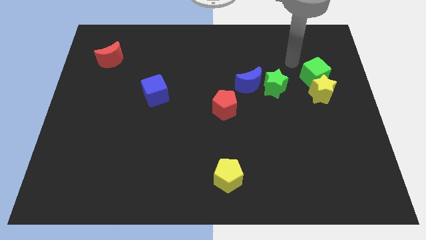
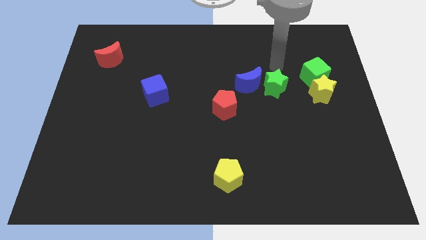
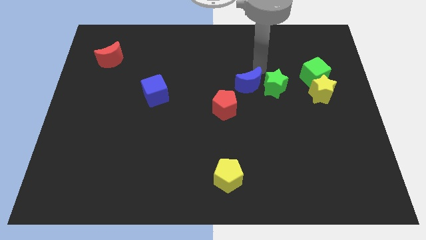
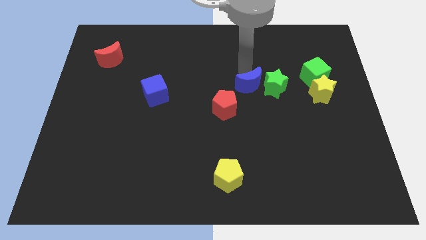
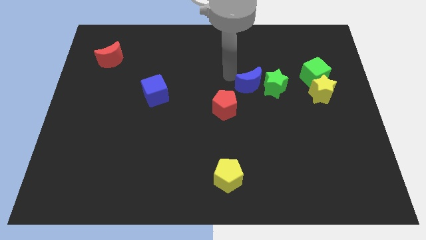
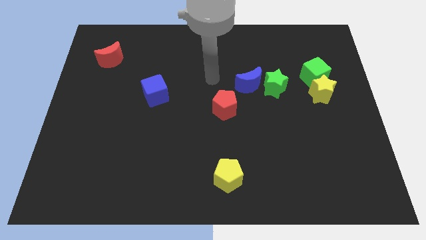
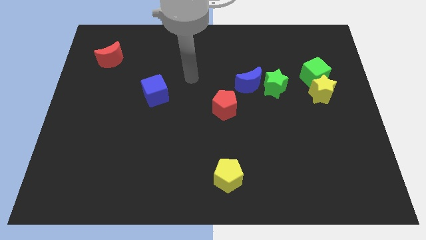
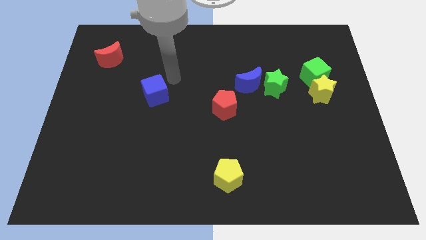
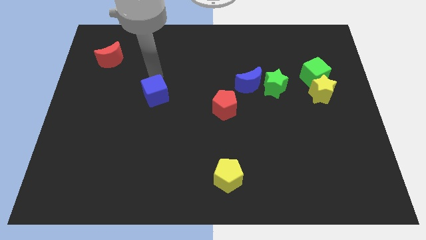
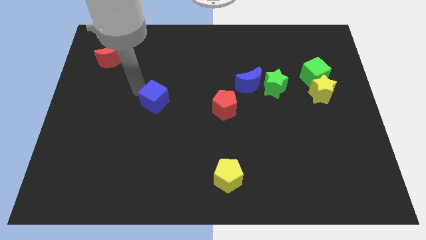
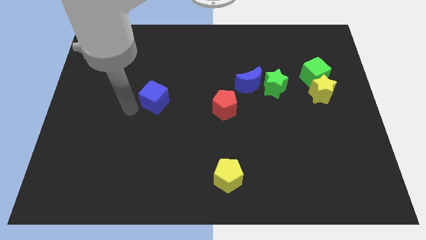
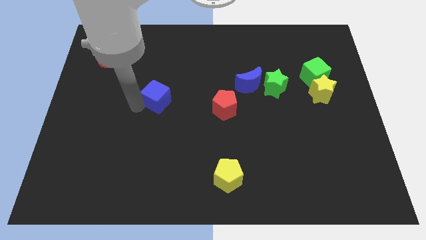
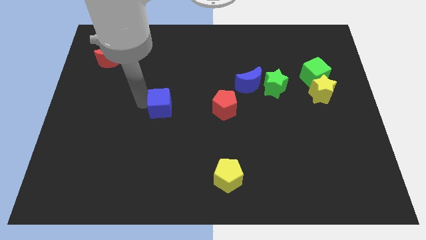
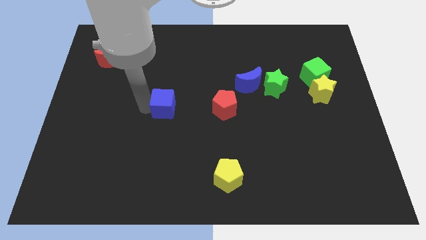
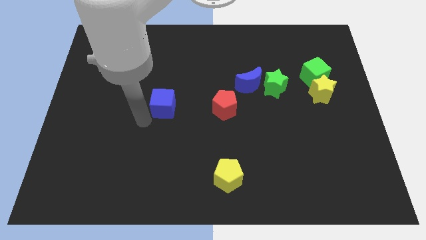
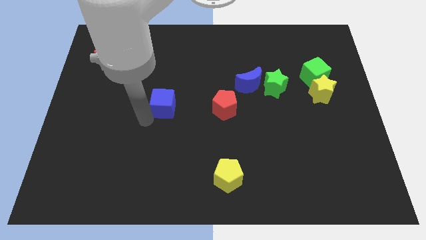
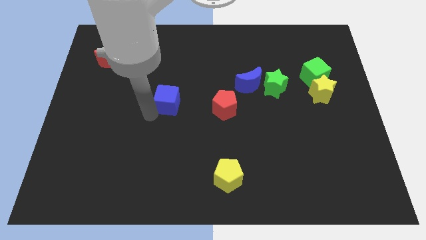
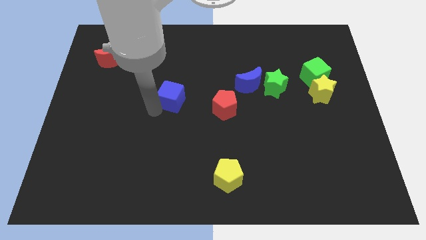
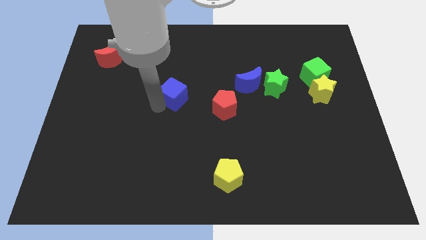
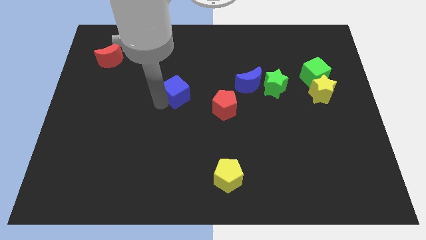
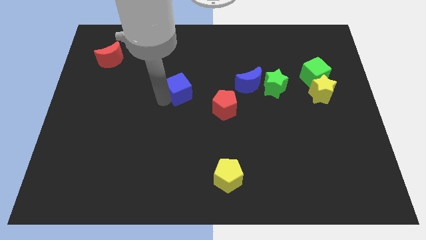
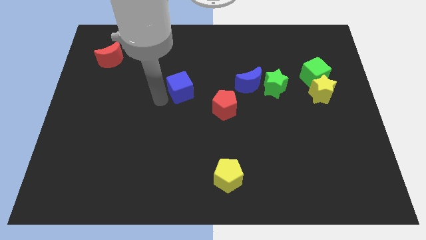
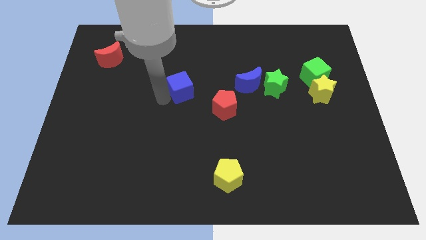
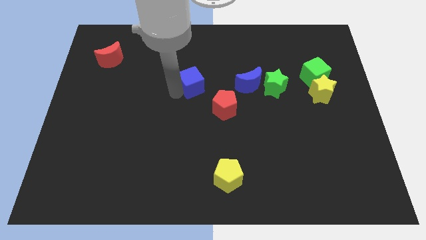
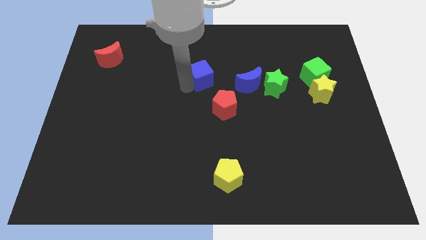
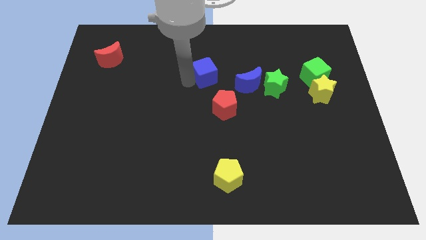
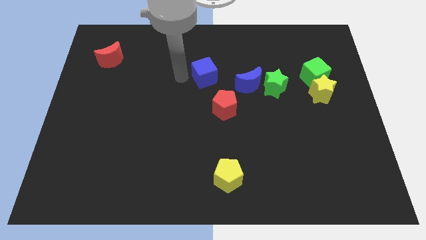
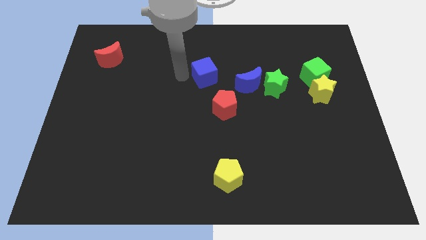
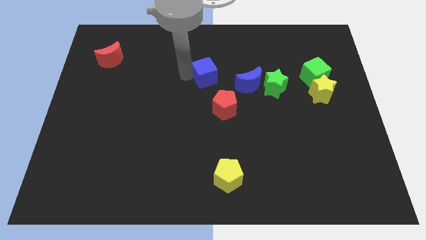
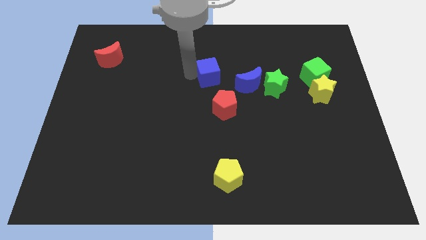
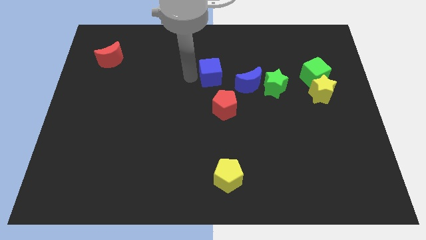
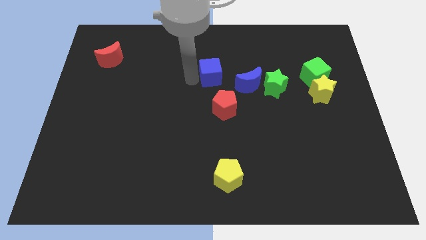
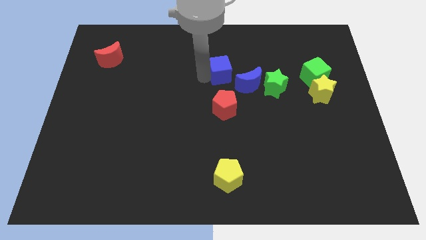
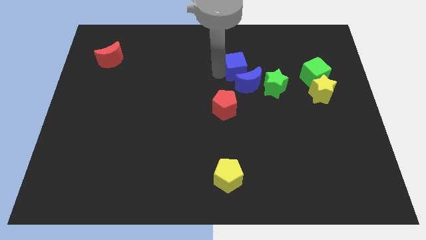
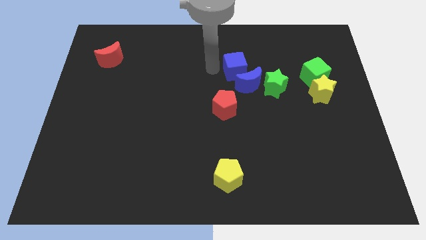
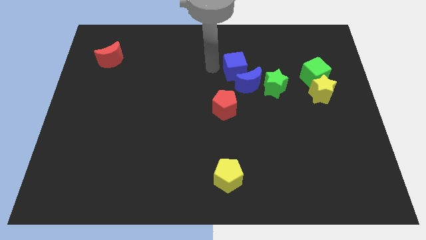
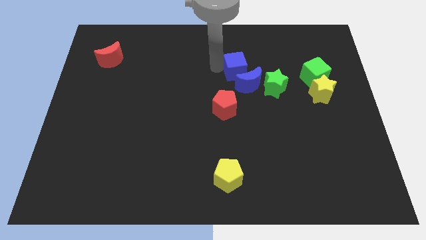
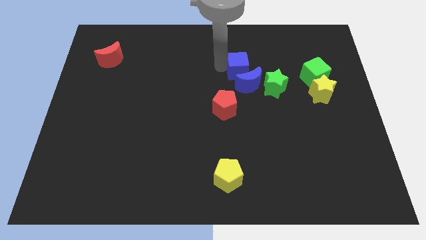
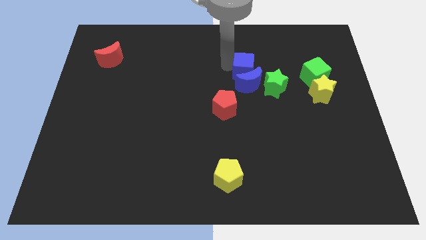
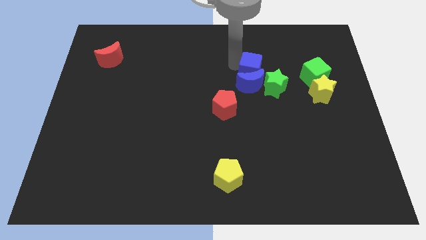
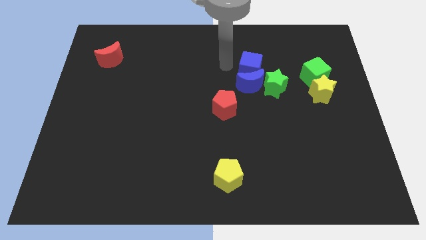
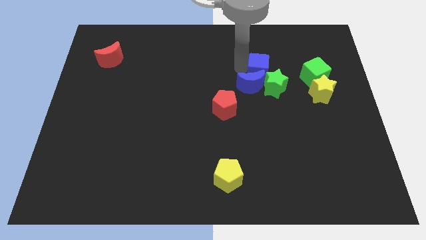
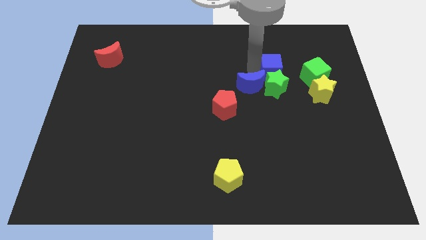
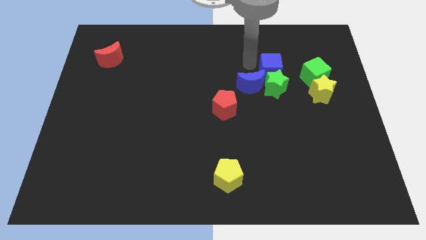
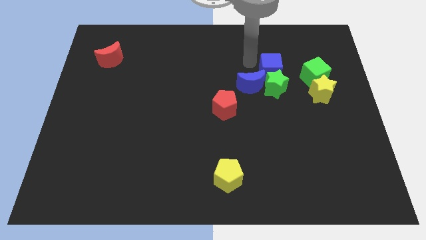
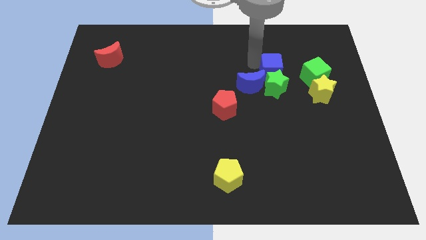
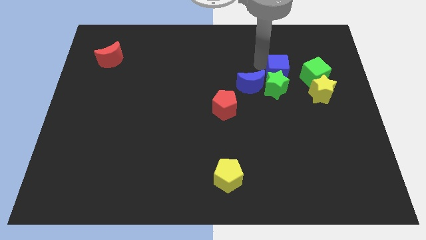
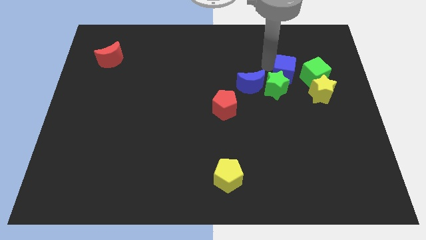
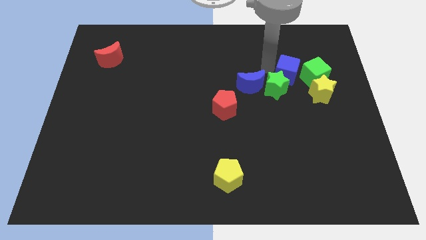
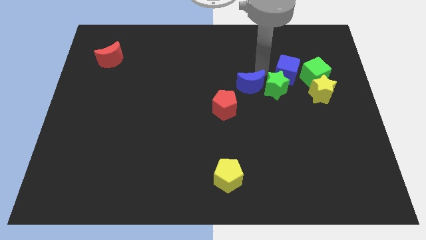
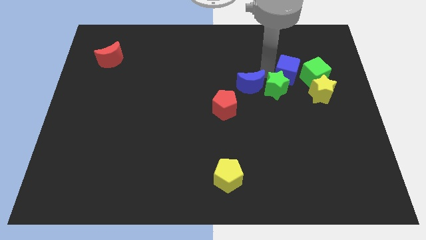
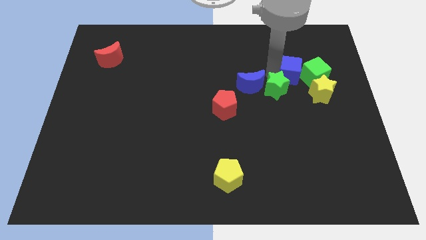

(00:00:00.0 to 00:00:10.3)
put the blue cube next to the green cube

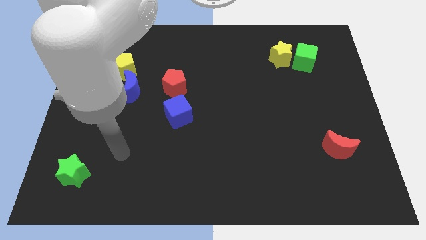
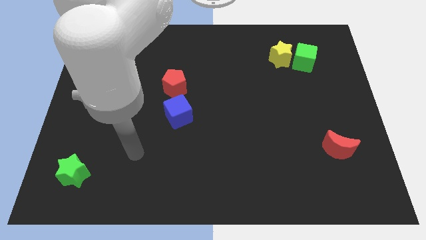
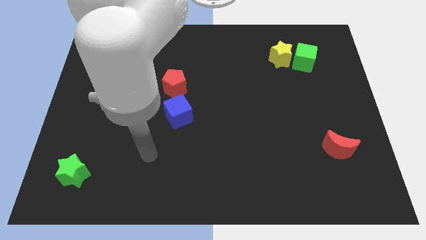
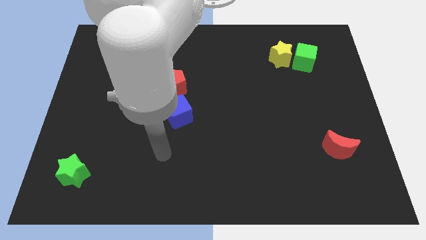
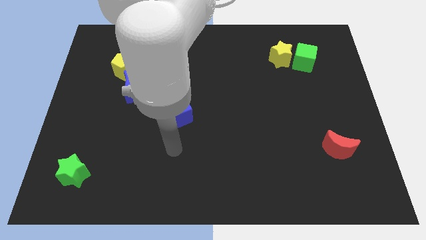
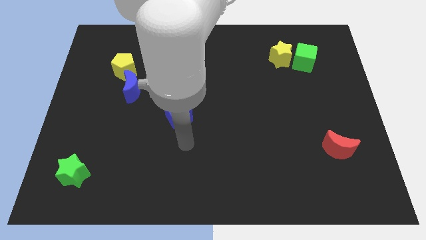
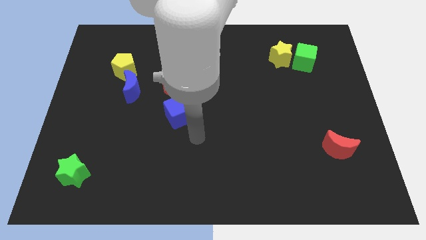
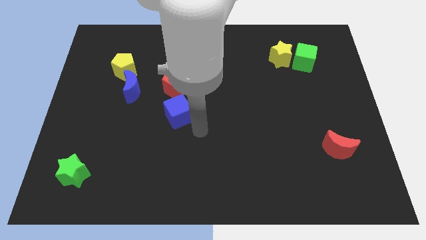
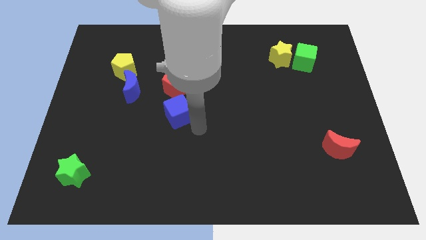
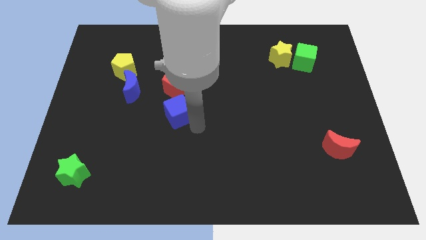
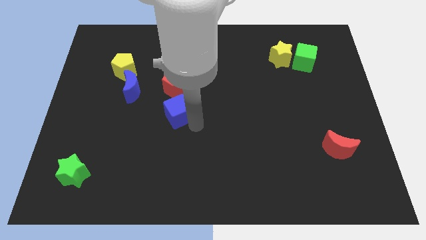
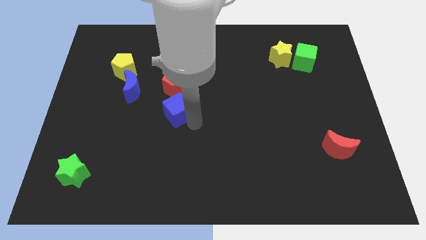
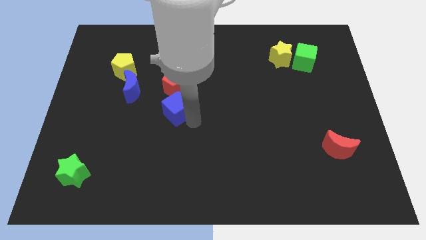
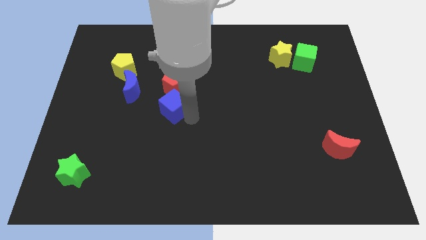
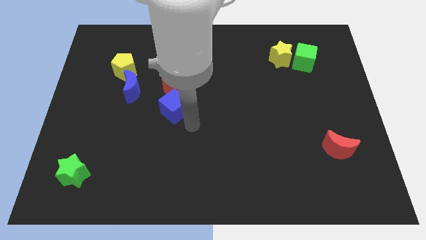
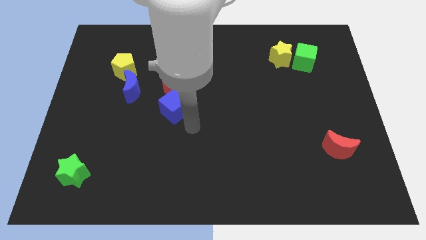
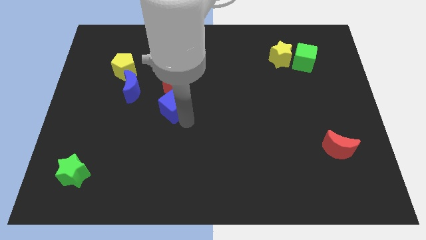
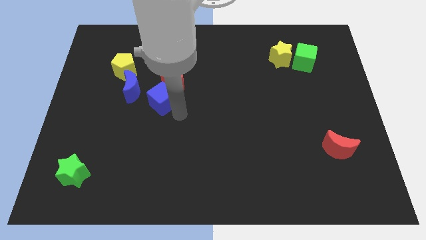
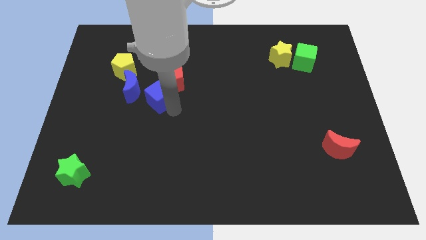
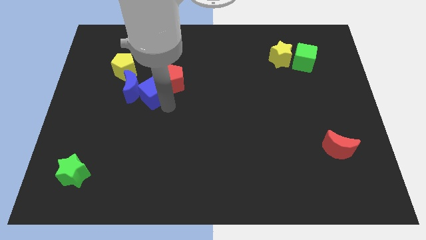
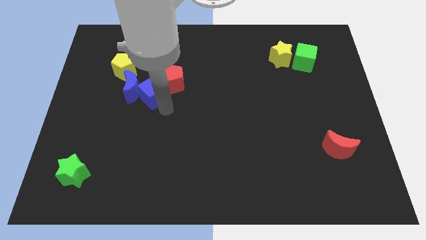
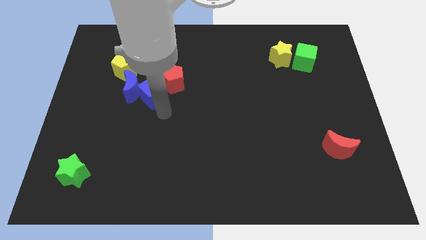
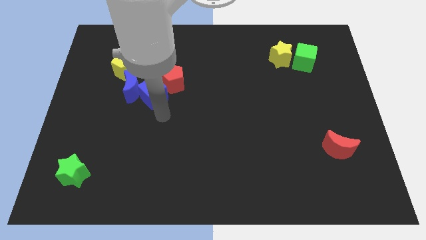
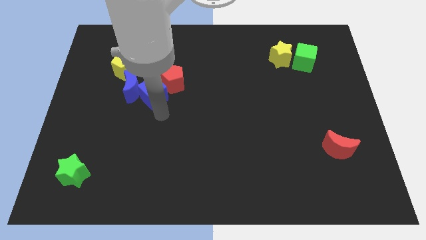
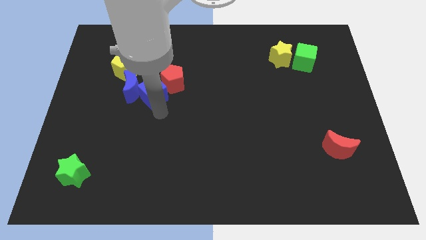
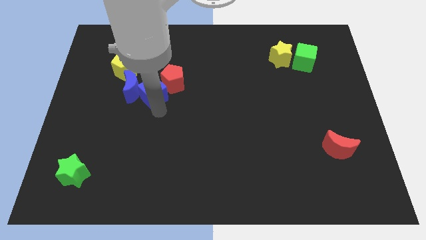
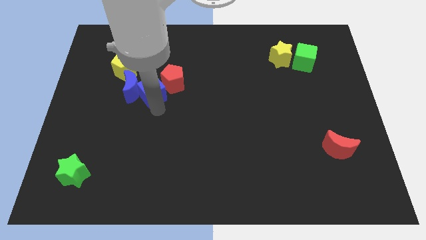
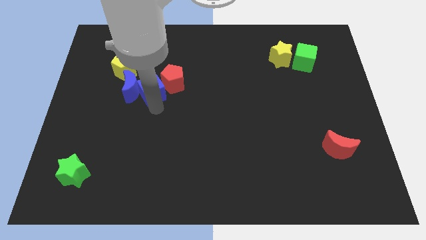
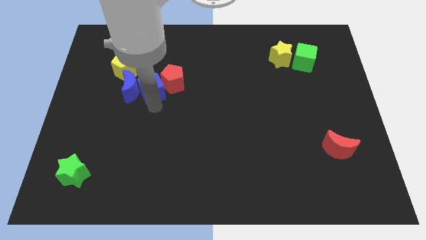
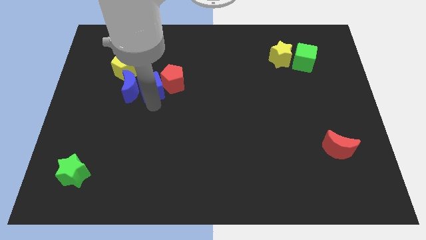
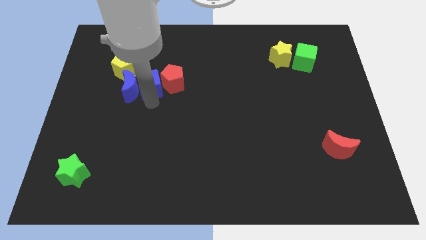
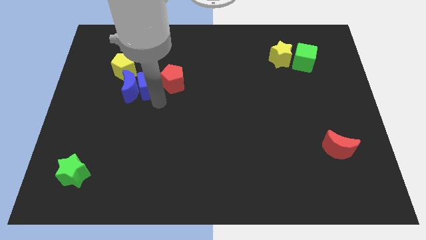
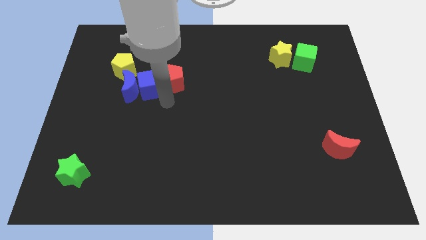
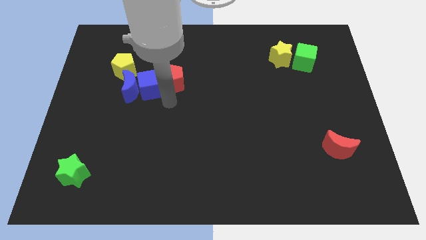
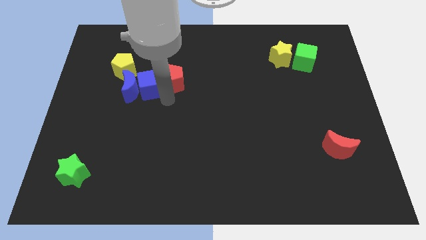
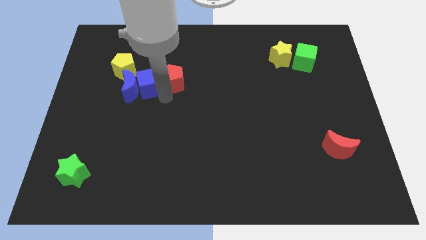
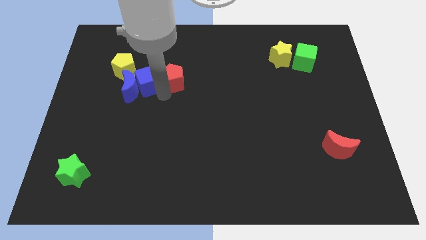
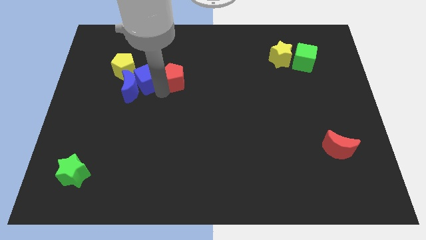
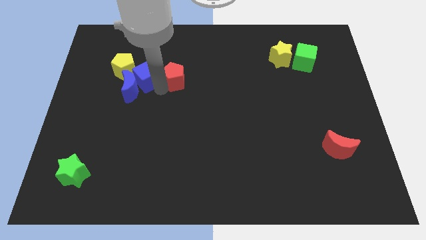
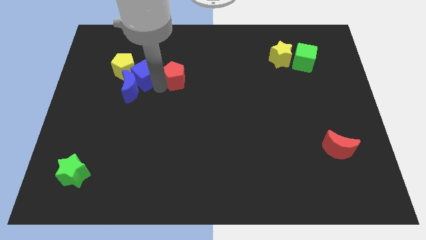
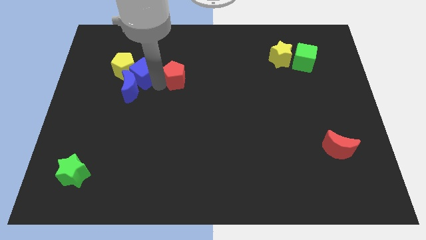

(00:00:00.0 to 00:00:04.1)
move the blue cube close to the yellow pentagon
